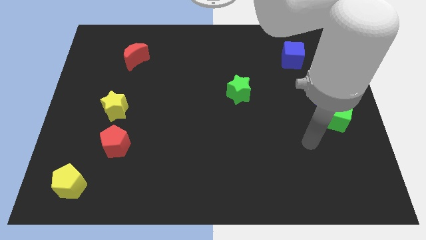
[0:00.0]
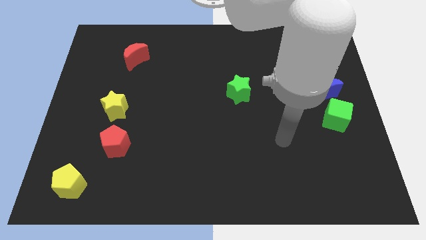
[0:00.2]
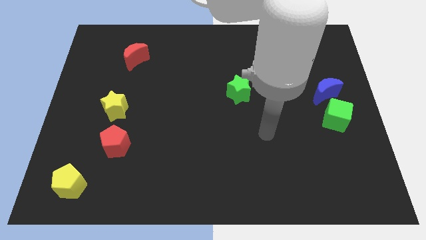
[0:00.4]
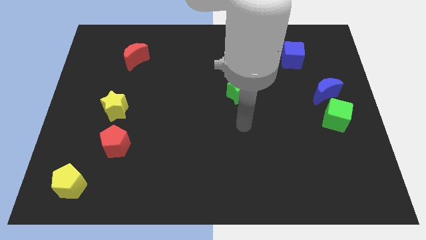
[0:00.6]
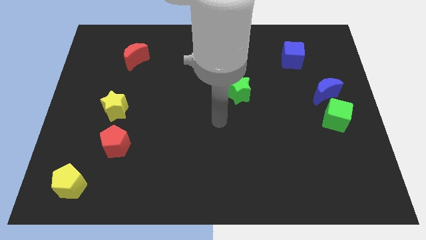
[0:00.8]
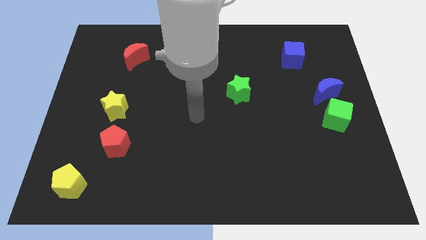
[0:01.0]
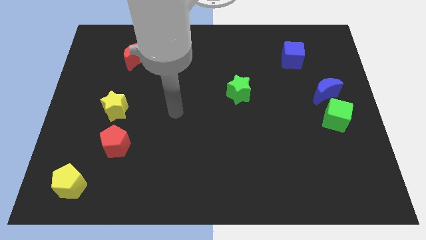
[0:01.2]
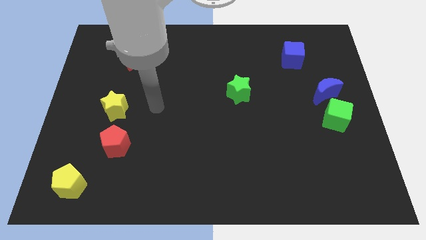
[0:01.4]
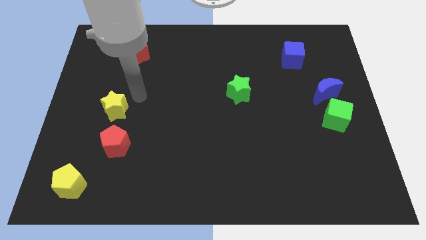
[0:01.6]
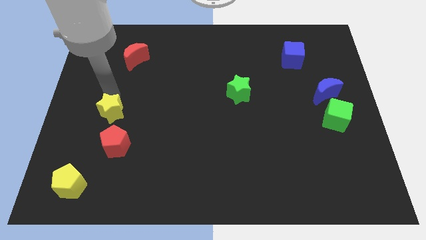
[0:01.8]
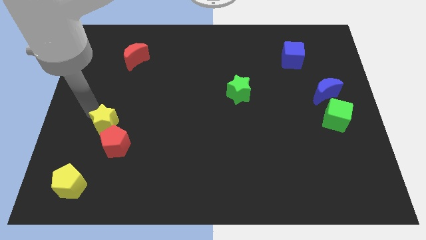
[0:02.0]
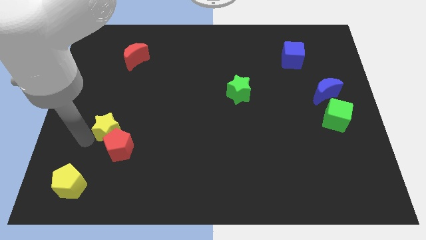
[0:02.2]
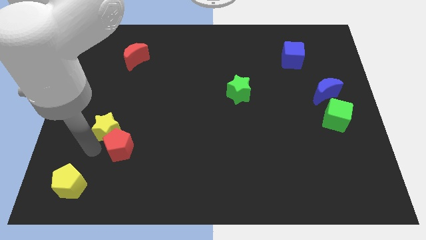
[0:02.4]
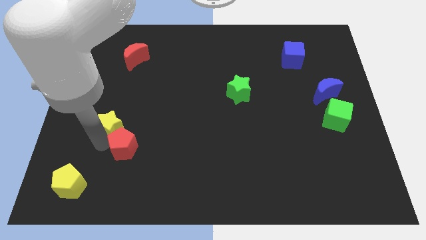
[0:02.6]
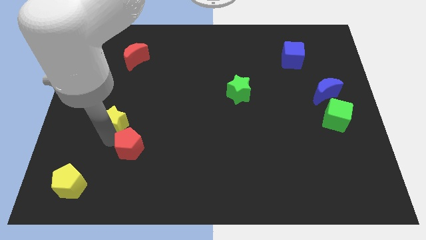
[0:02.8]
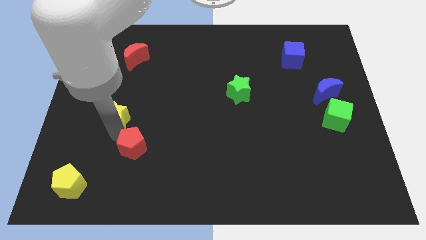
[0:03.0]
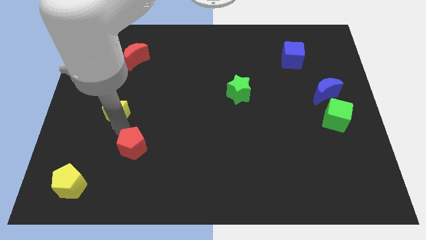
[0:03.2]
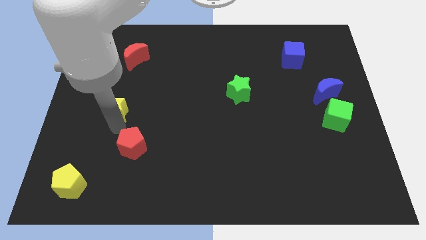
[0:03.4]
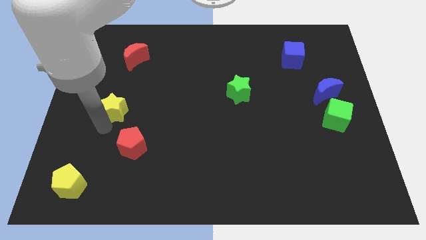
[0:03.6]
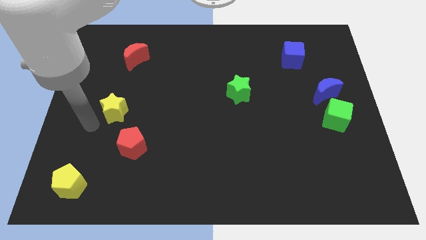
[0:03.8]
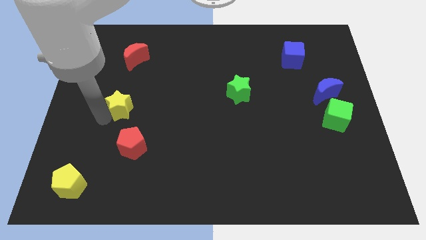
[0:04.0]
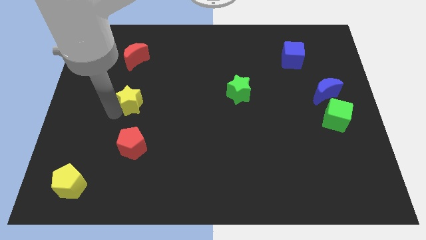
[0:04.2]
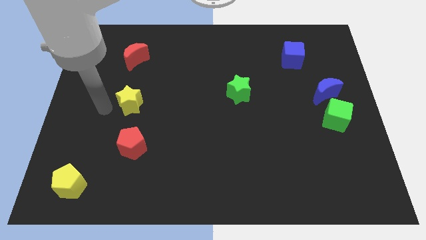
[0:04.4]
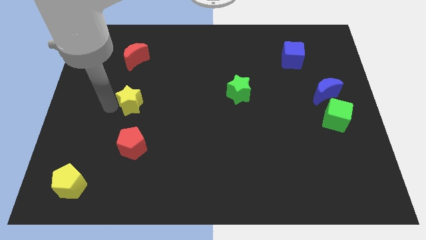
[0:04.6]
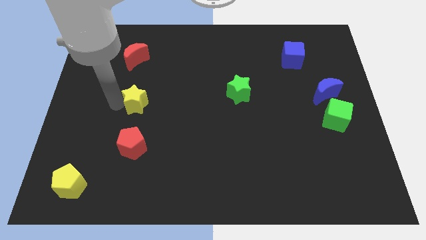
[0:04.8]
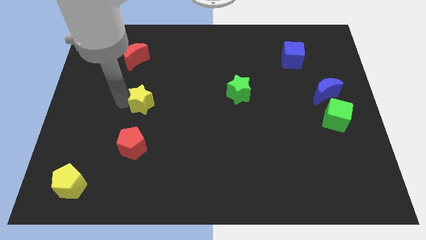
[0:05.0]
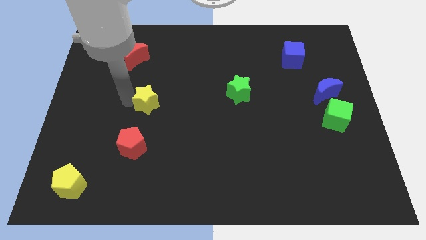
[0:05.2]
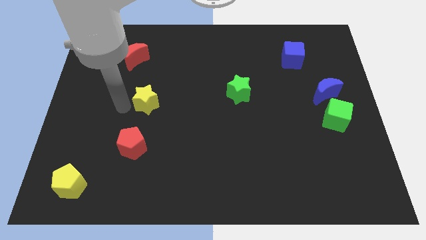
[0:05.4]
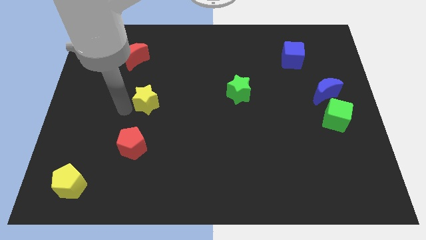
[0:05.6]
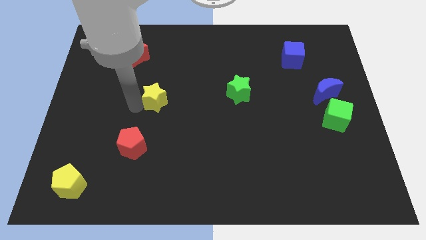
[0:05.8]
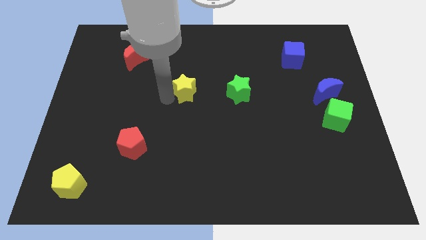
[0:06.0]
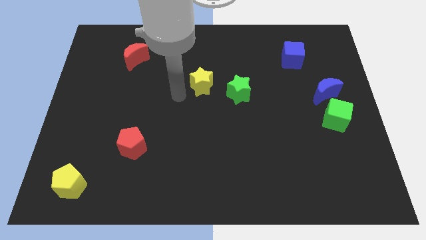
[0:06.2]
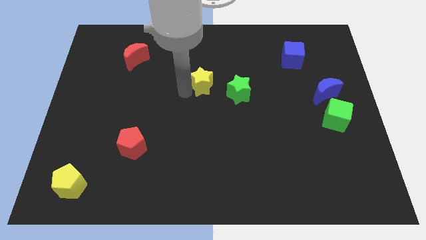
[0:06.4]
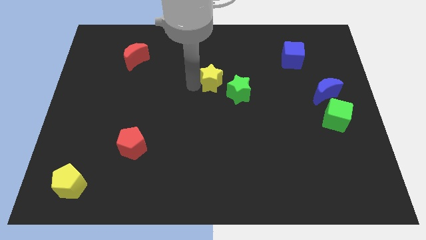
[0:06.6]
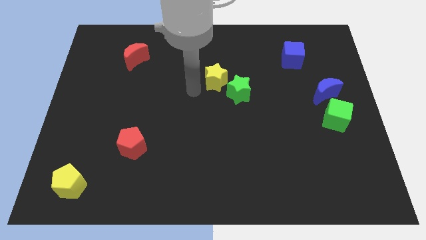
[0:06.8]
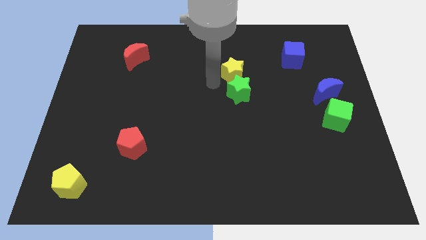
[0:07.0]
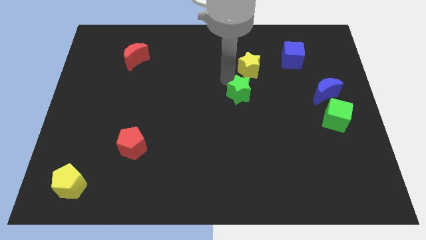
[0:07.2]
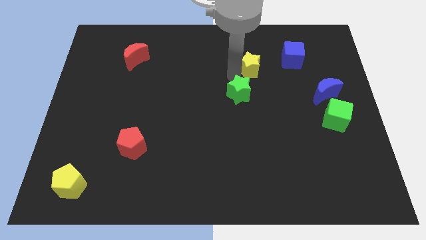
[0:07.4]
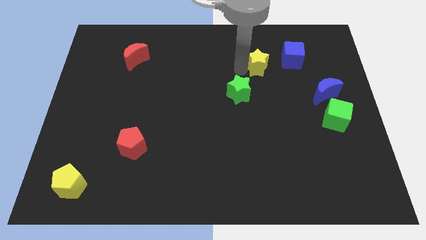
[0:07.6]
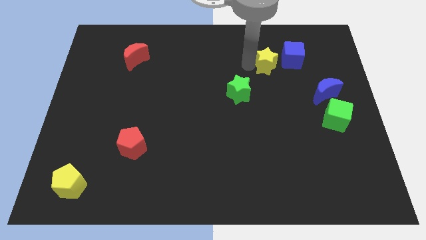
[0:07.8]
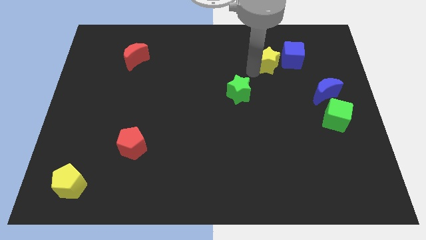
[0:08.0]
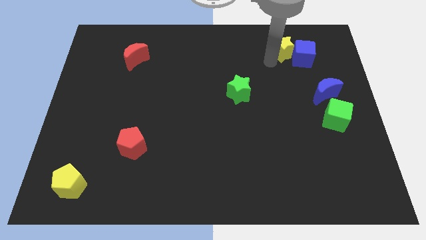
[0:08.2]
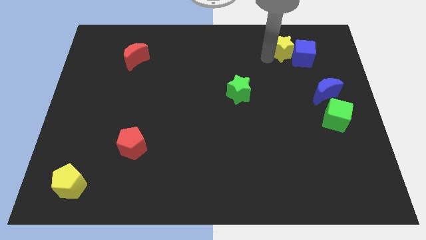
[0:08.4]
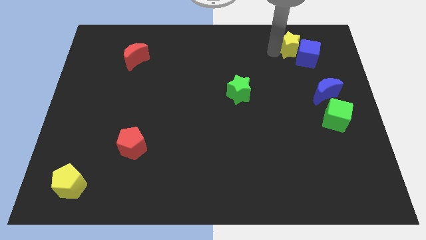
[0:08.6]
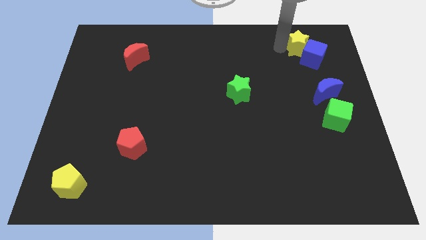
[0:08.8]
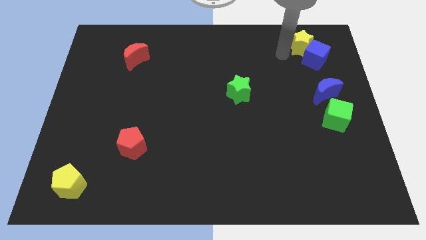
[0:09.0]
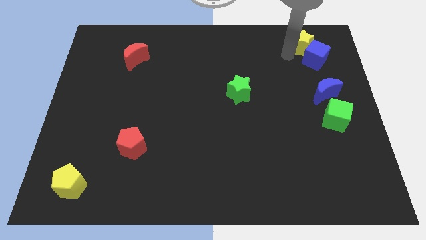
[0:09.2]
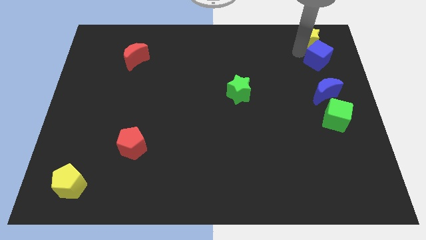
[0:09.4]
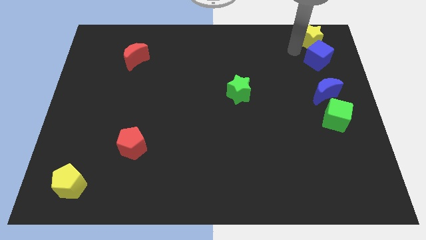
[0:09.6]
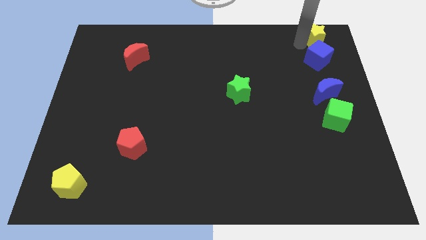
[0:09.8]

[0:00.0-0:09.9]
put the yellow star to the top right

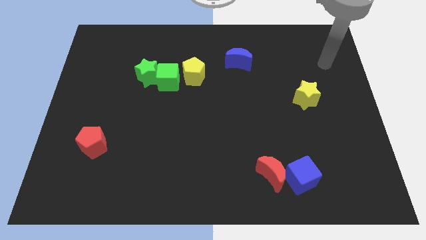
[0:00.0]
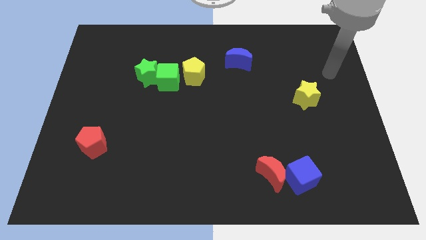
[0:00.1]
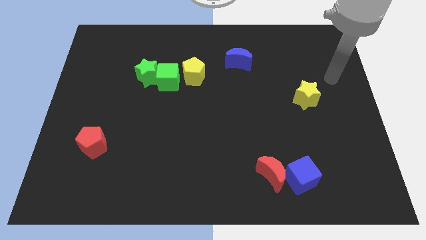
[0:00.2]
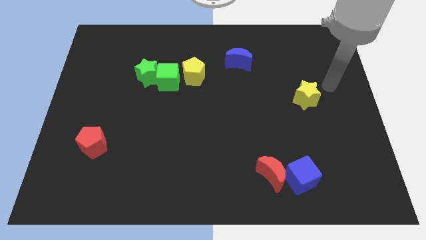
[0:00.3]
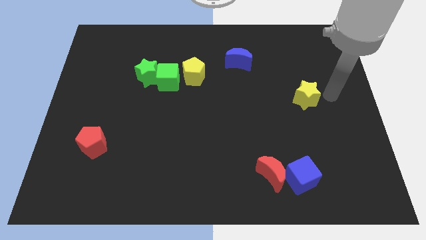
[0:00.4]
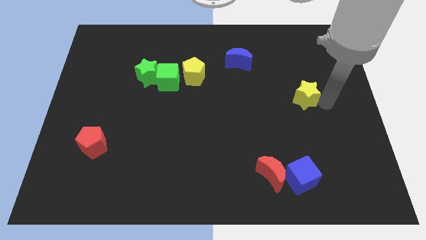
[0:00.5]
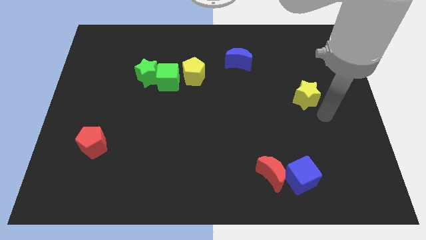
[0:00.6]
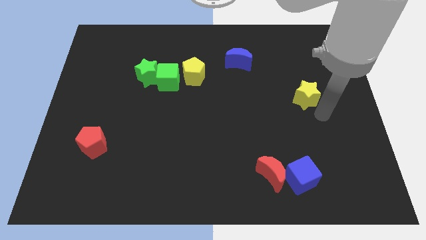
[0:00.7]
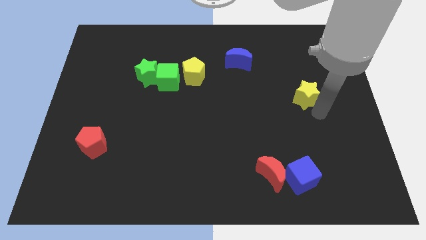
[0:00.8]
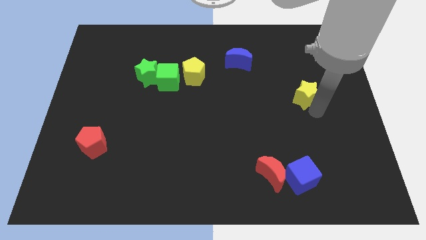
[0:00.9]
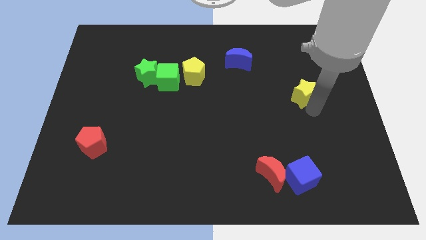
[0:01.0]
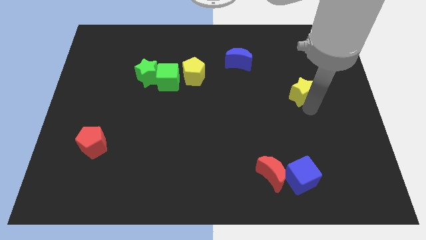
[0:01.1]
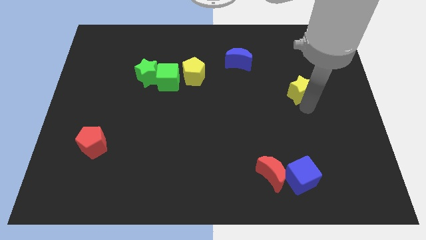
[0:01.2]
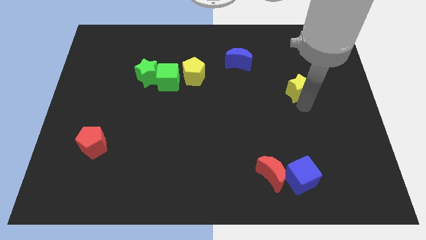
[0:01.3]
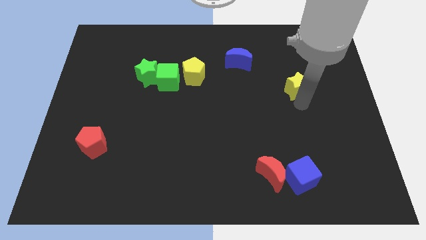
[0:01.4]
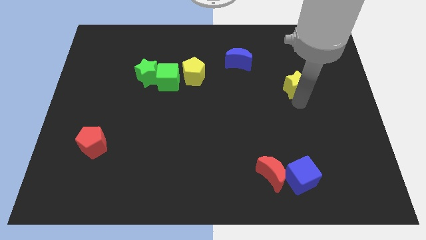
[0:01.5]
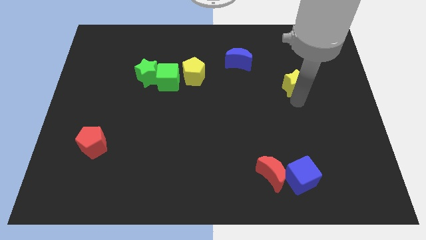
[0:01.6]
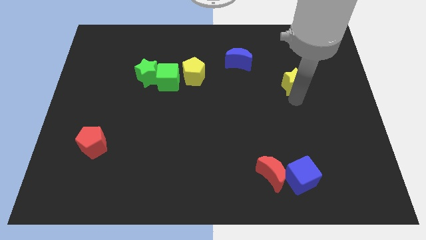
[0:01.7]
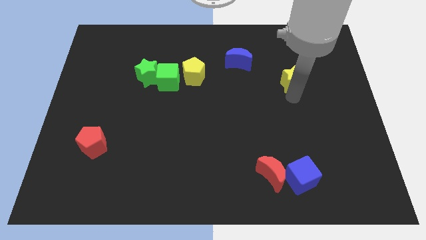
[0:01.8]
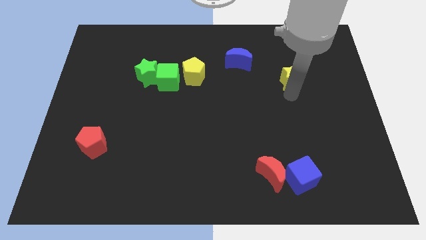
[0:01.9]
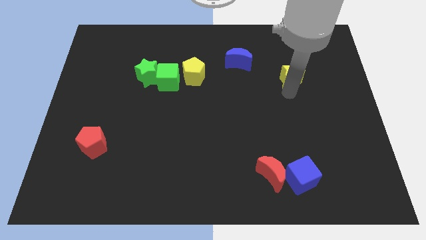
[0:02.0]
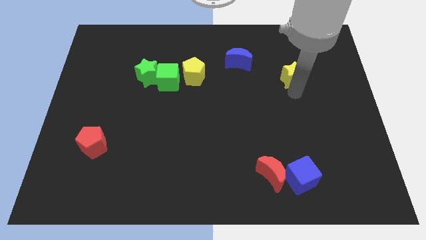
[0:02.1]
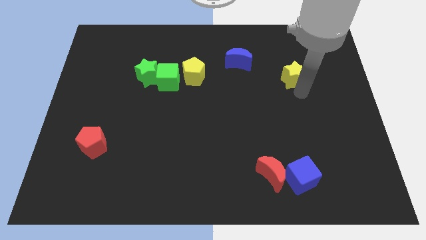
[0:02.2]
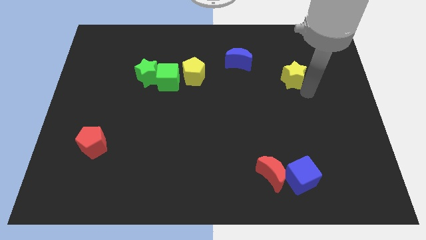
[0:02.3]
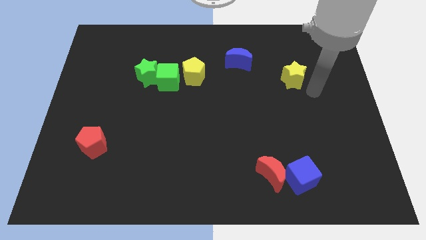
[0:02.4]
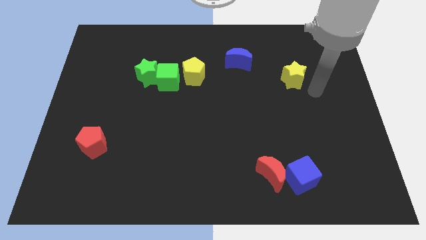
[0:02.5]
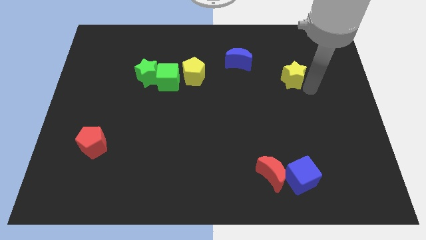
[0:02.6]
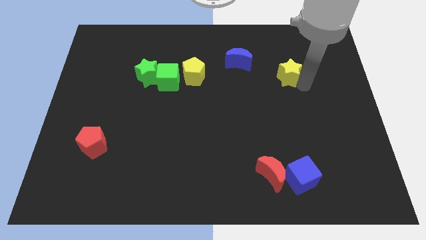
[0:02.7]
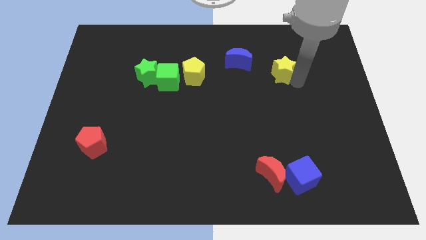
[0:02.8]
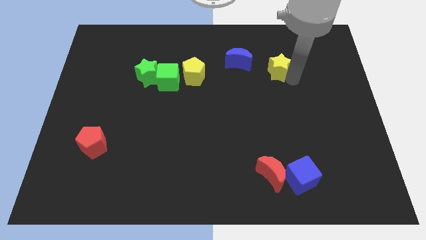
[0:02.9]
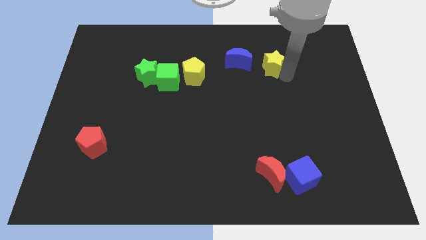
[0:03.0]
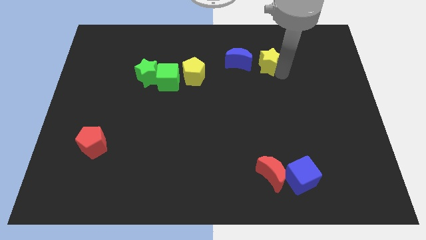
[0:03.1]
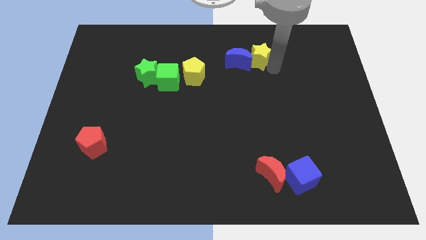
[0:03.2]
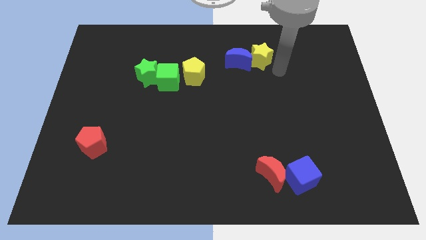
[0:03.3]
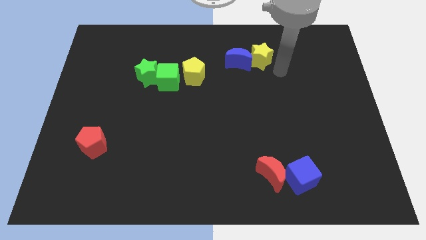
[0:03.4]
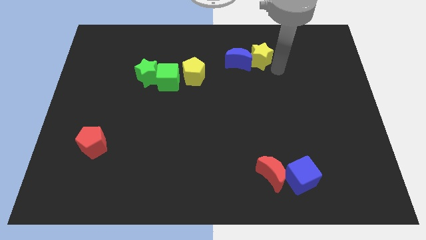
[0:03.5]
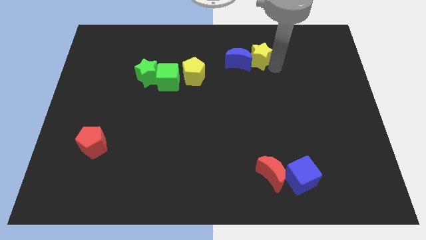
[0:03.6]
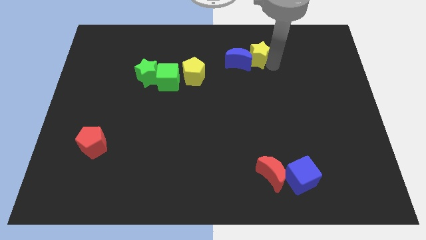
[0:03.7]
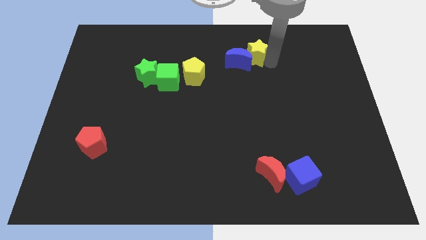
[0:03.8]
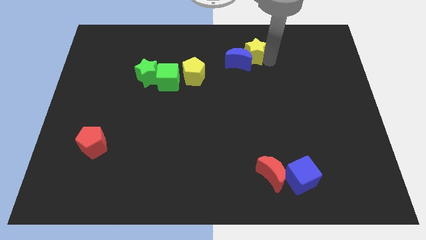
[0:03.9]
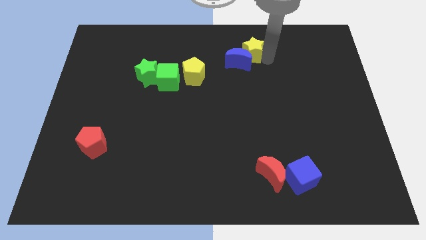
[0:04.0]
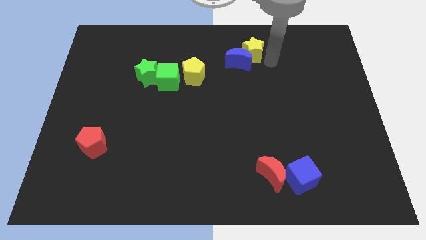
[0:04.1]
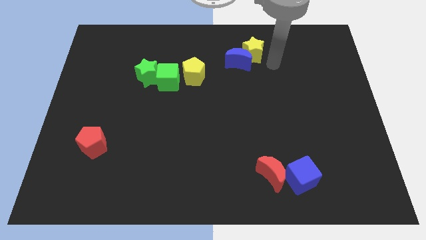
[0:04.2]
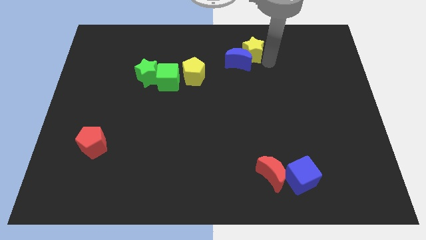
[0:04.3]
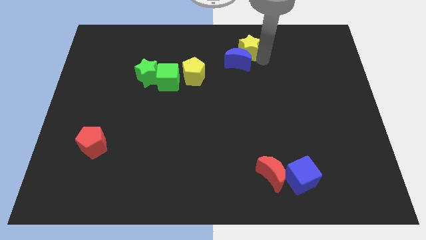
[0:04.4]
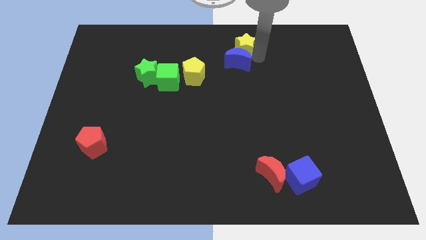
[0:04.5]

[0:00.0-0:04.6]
move the yellow star to the top
